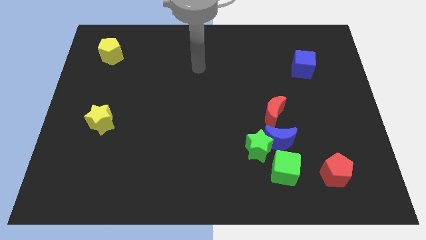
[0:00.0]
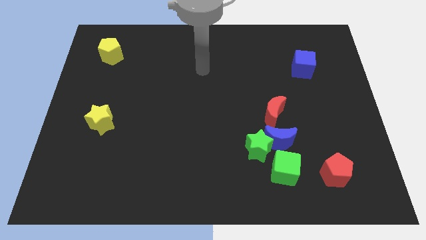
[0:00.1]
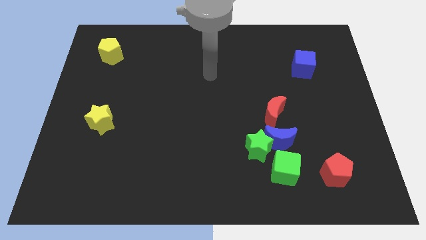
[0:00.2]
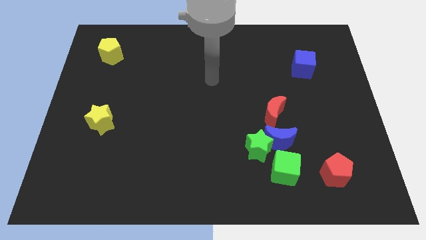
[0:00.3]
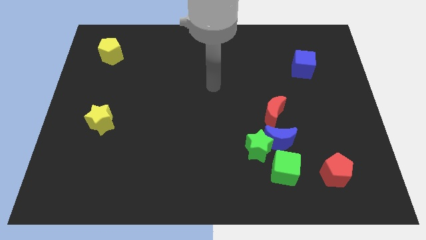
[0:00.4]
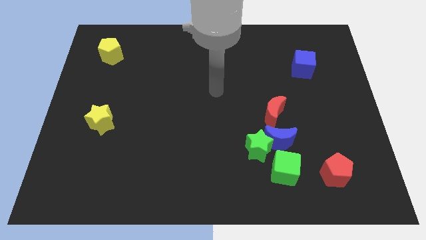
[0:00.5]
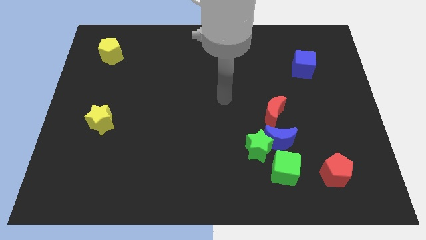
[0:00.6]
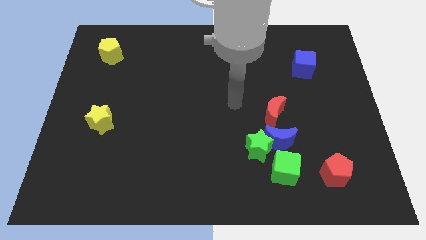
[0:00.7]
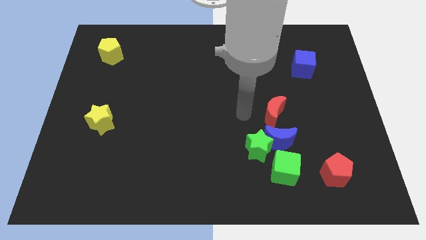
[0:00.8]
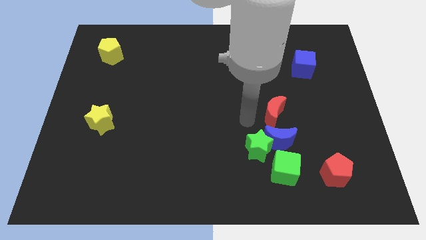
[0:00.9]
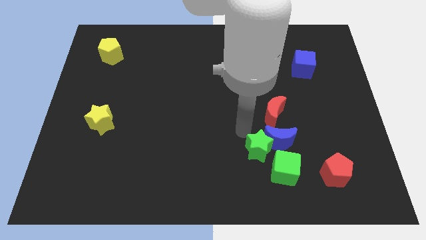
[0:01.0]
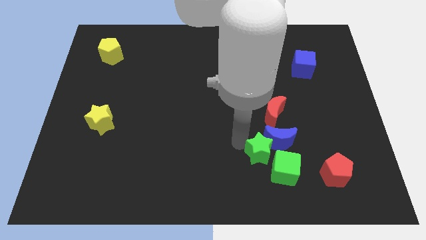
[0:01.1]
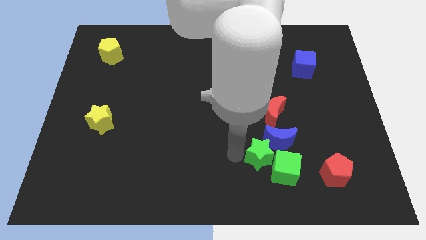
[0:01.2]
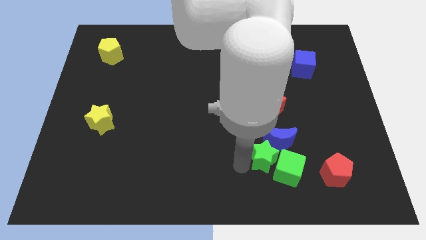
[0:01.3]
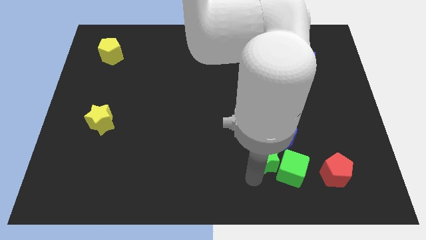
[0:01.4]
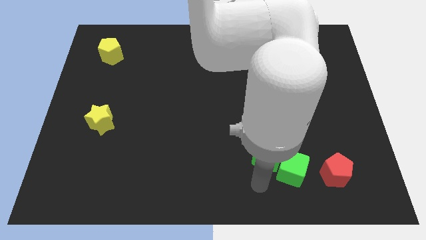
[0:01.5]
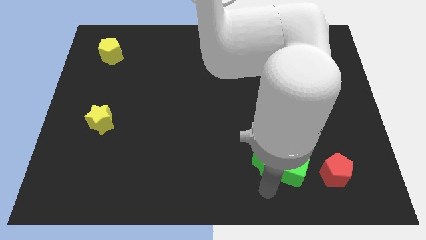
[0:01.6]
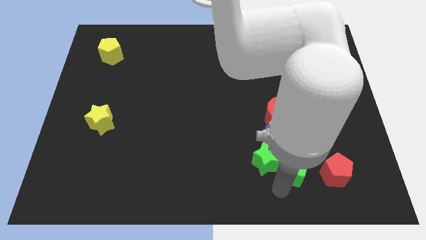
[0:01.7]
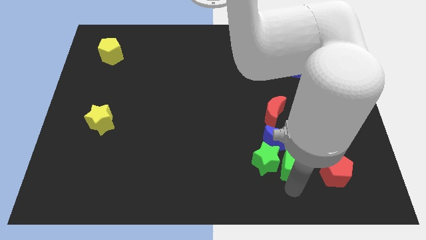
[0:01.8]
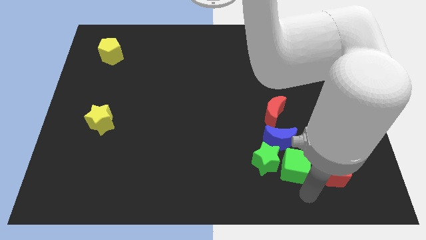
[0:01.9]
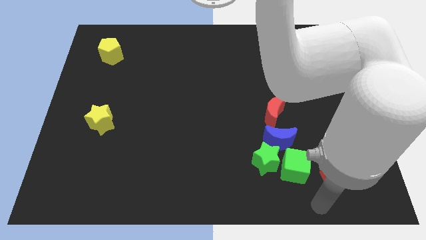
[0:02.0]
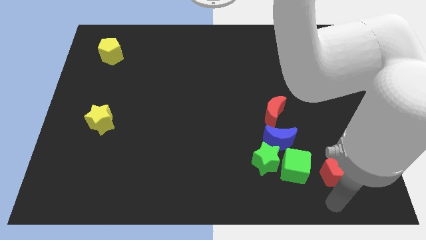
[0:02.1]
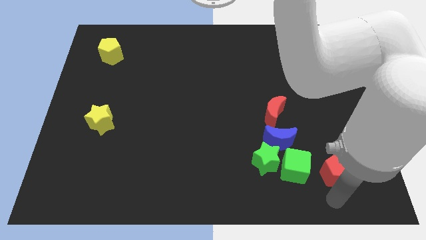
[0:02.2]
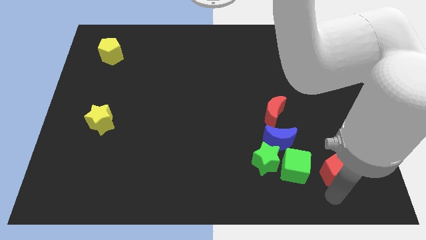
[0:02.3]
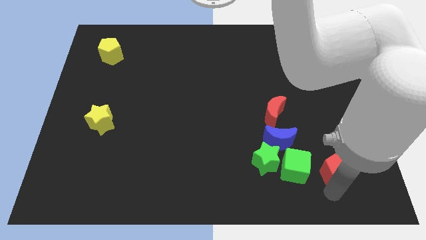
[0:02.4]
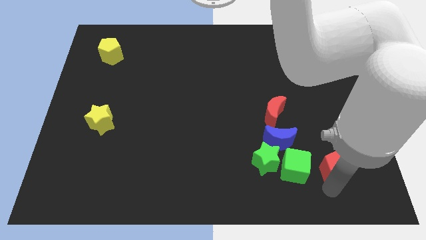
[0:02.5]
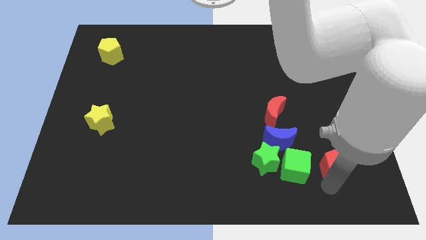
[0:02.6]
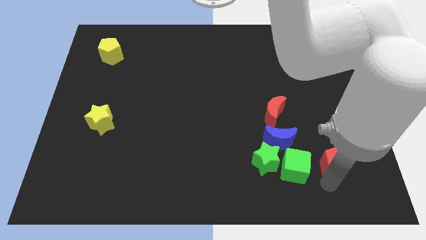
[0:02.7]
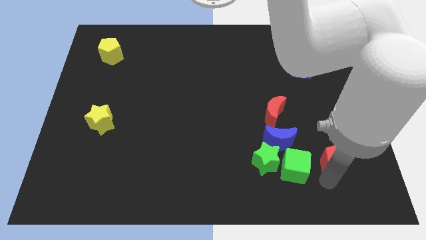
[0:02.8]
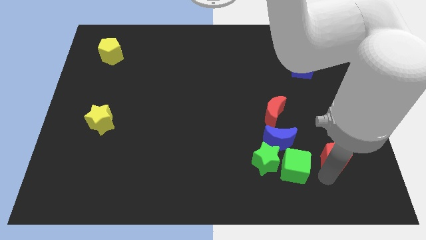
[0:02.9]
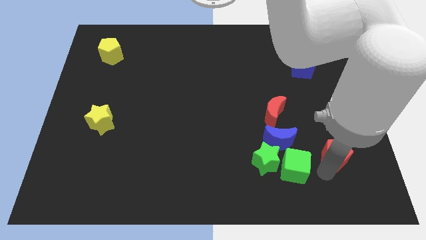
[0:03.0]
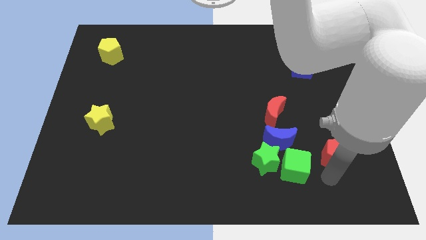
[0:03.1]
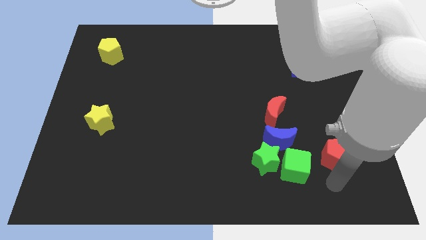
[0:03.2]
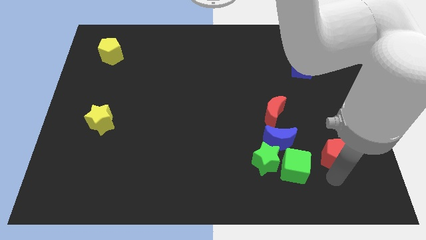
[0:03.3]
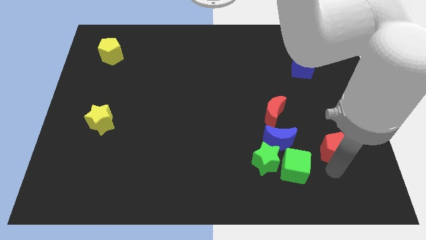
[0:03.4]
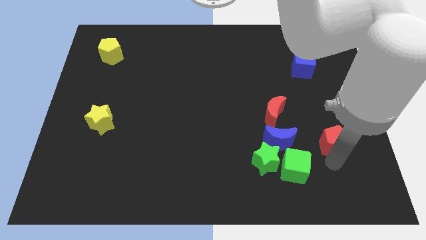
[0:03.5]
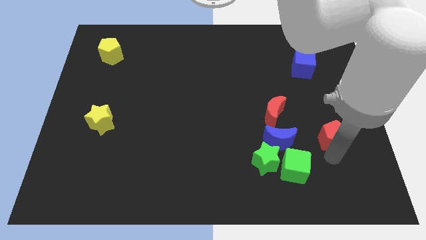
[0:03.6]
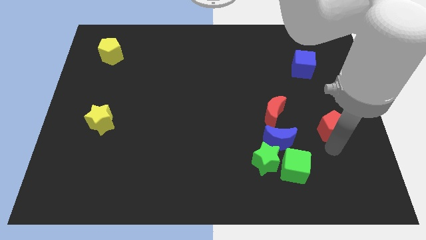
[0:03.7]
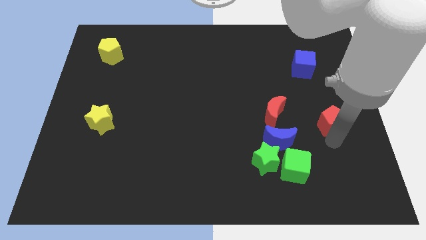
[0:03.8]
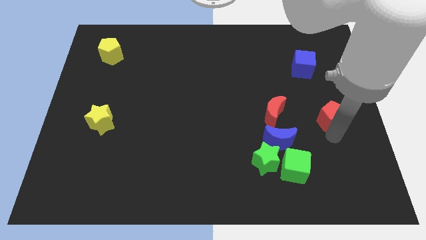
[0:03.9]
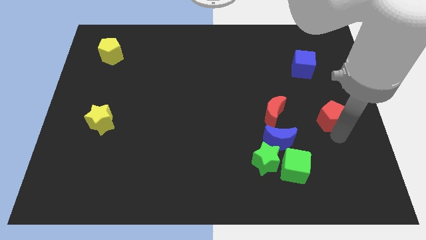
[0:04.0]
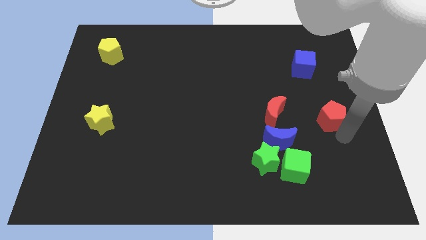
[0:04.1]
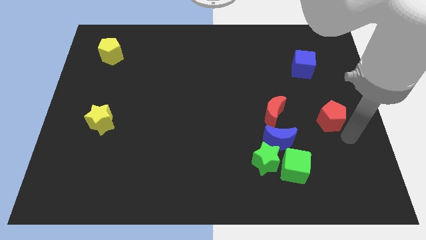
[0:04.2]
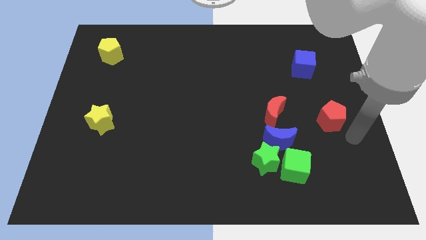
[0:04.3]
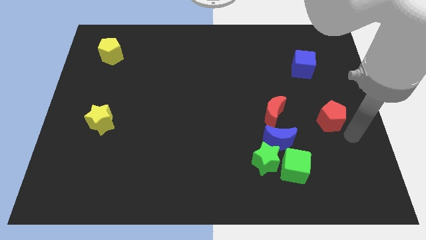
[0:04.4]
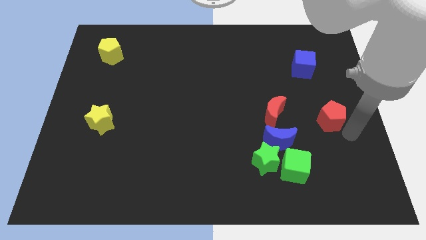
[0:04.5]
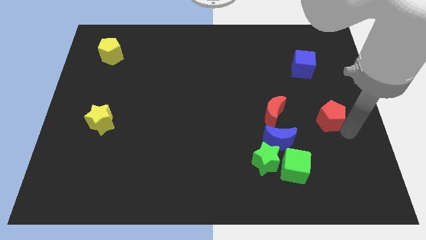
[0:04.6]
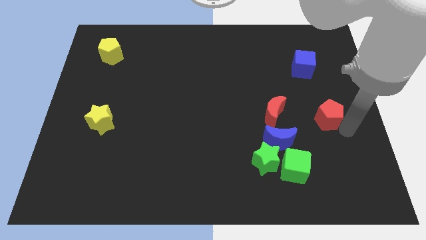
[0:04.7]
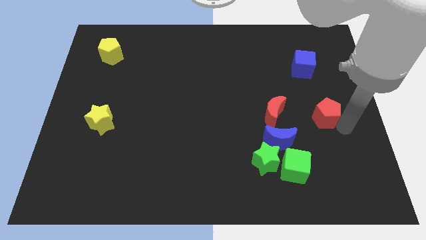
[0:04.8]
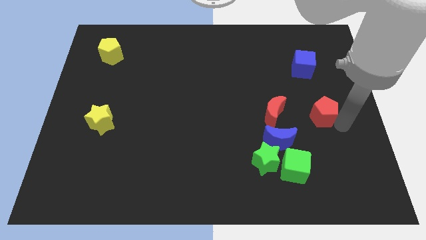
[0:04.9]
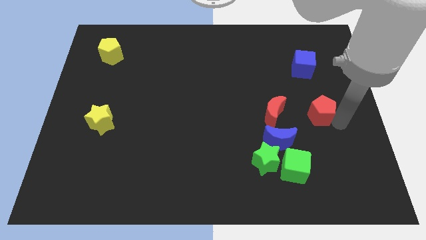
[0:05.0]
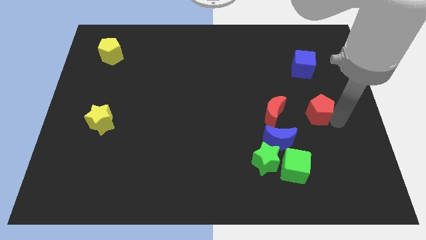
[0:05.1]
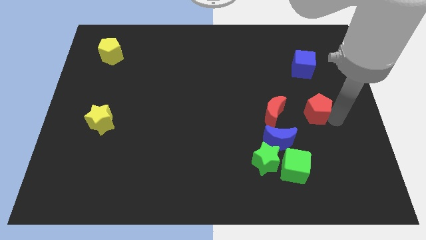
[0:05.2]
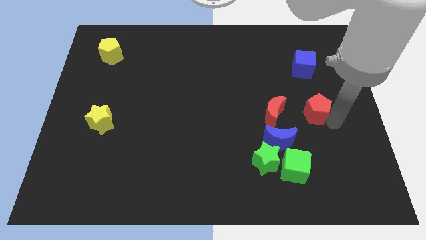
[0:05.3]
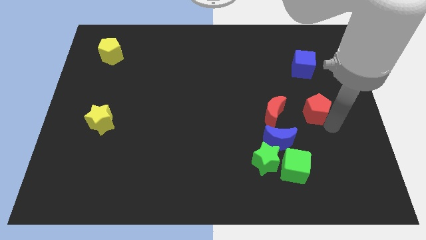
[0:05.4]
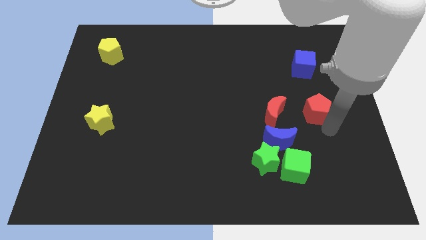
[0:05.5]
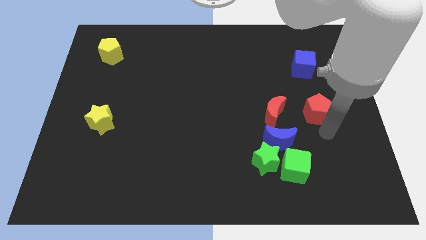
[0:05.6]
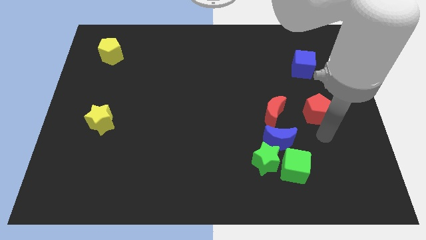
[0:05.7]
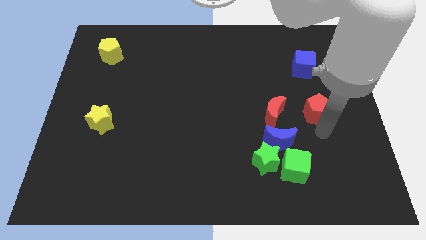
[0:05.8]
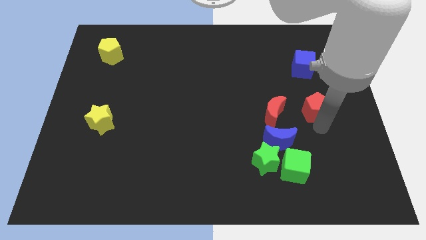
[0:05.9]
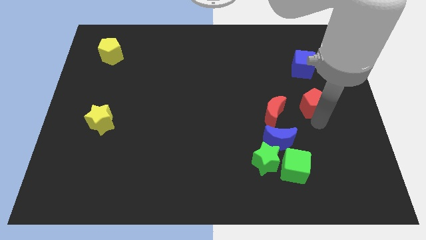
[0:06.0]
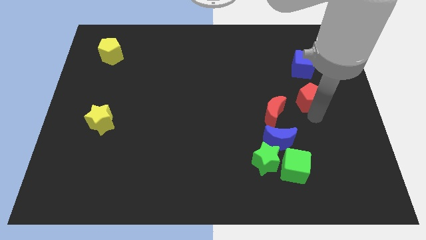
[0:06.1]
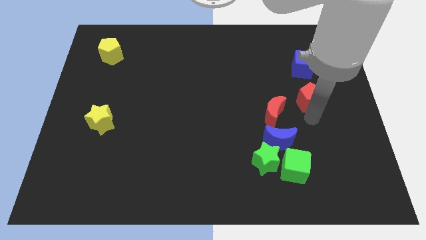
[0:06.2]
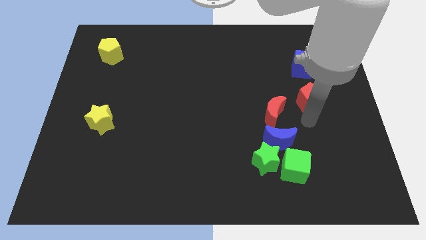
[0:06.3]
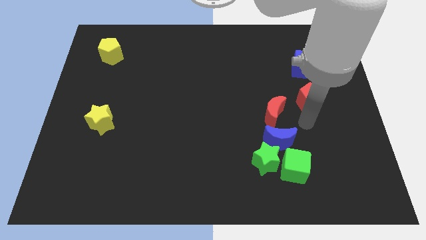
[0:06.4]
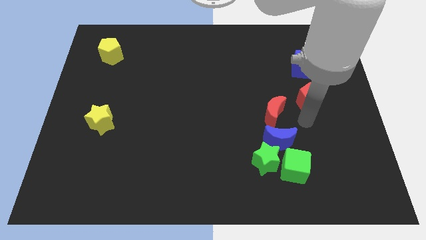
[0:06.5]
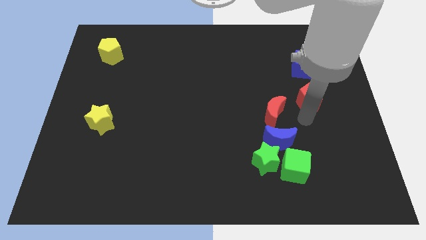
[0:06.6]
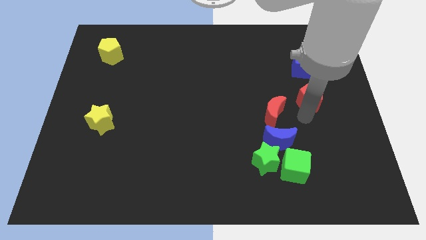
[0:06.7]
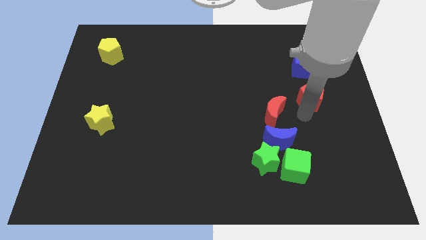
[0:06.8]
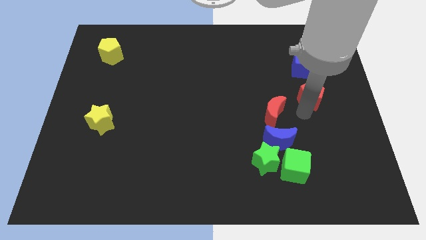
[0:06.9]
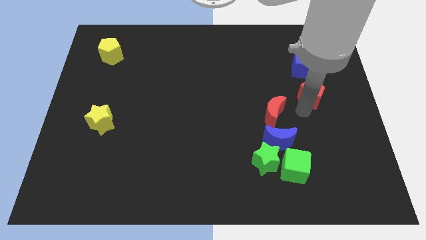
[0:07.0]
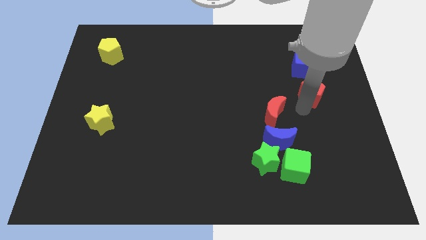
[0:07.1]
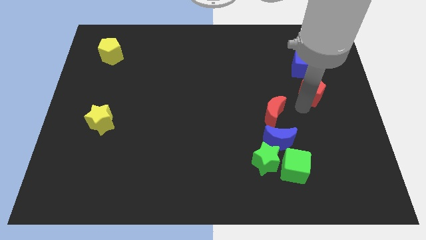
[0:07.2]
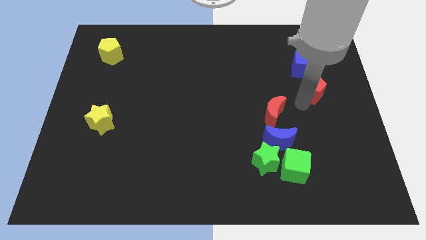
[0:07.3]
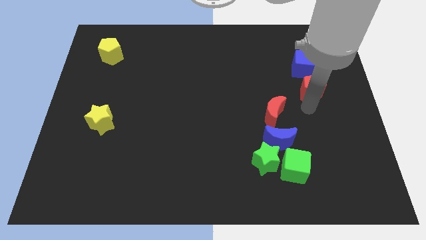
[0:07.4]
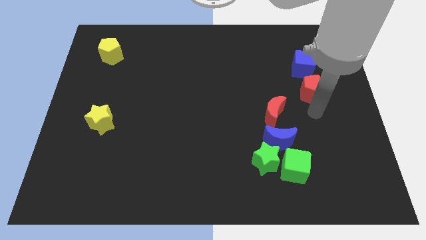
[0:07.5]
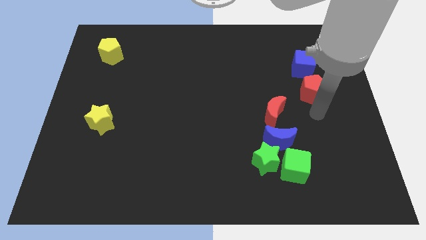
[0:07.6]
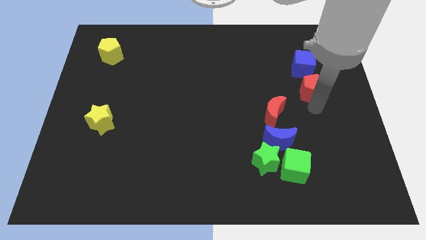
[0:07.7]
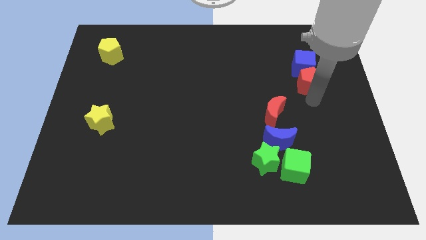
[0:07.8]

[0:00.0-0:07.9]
slide the red pentagon towards the blue cube
